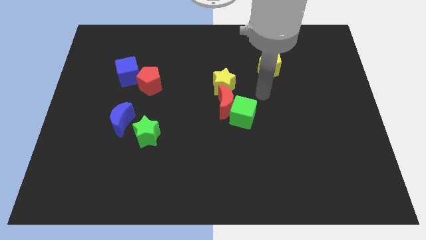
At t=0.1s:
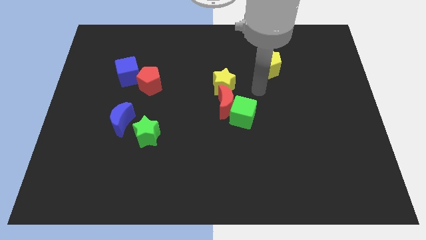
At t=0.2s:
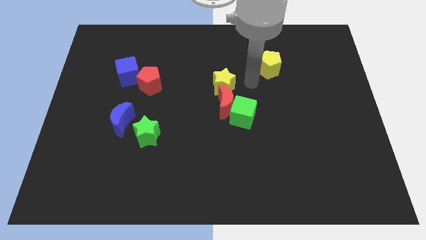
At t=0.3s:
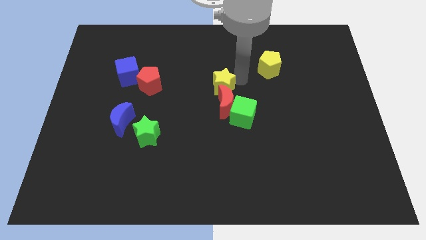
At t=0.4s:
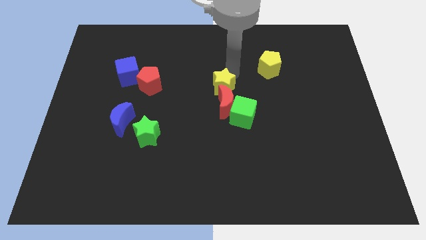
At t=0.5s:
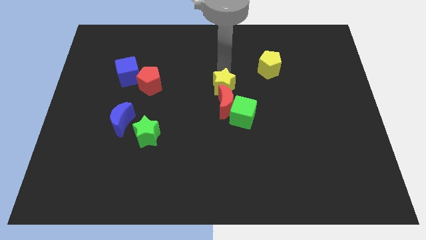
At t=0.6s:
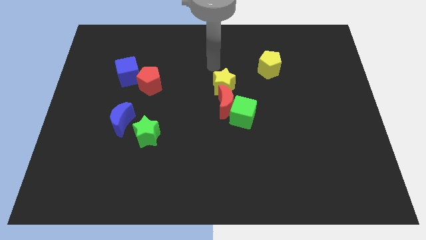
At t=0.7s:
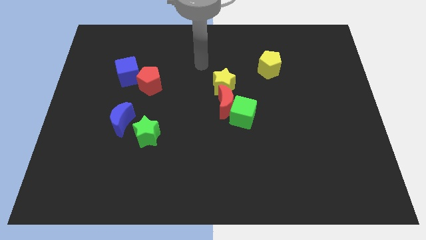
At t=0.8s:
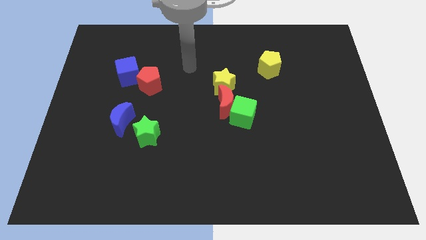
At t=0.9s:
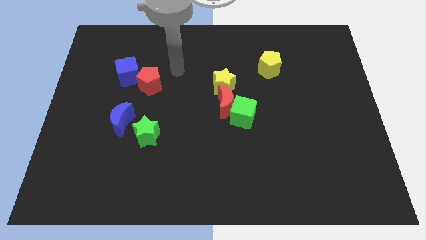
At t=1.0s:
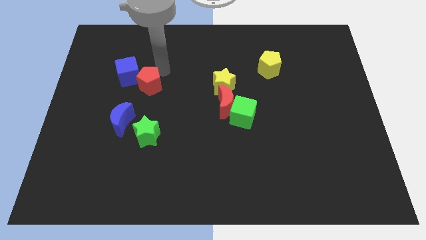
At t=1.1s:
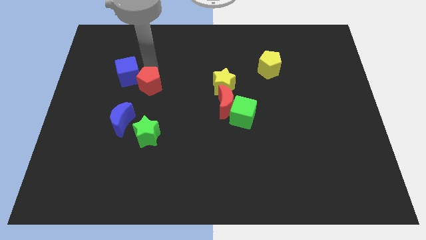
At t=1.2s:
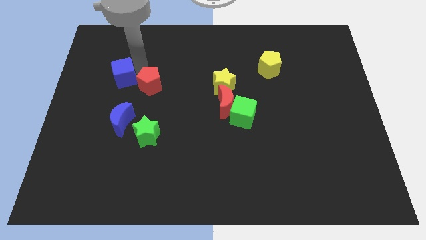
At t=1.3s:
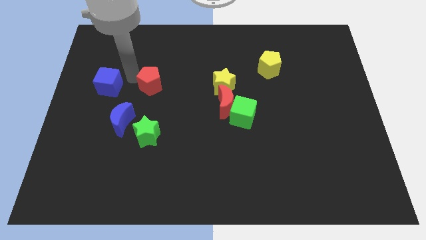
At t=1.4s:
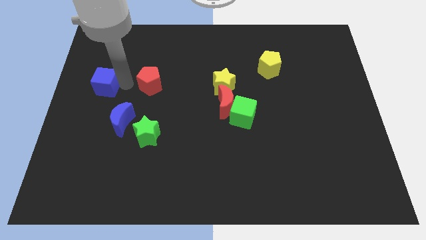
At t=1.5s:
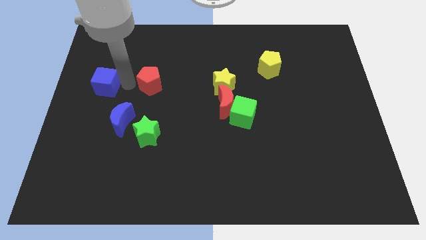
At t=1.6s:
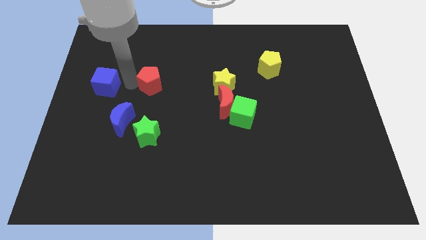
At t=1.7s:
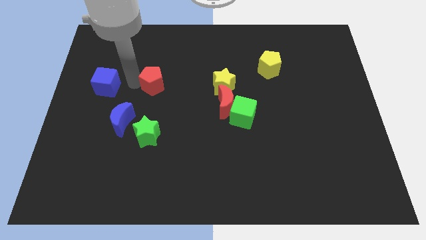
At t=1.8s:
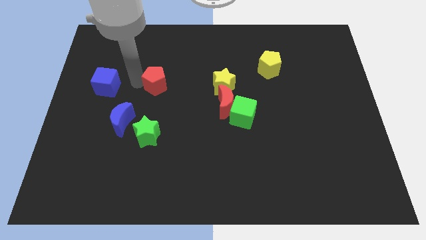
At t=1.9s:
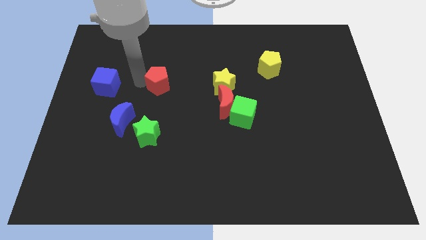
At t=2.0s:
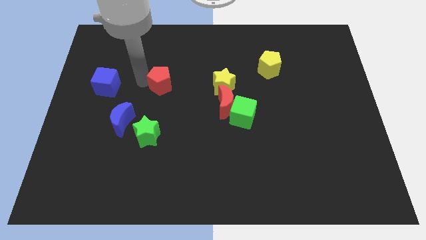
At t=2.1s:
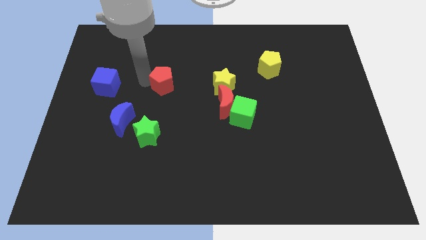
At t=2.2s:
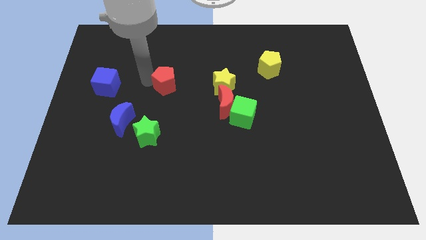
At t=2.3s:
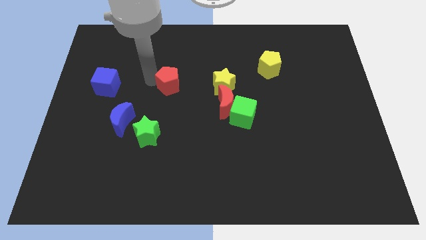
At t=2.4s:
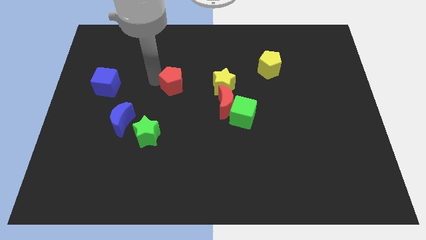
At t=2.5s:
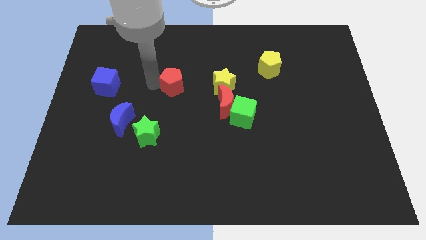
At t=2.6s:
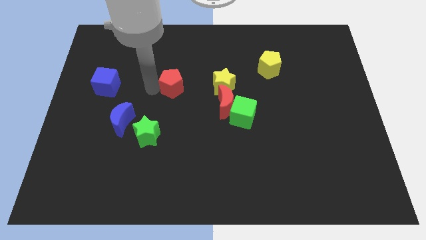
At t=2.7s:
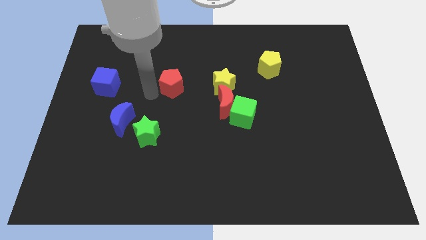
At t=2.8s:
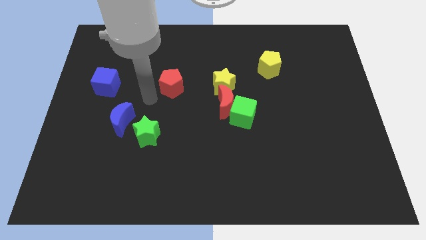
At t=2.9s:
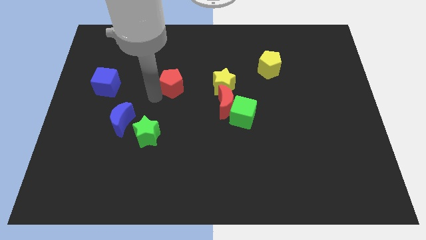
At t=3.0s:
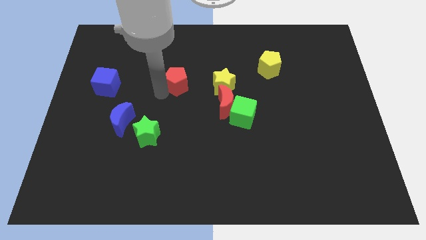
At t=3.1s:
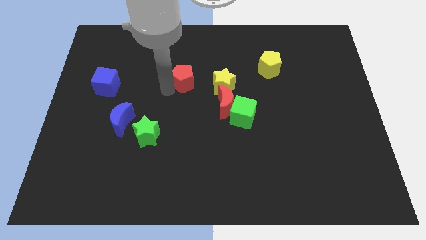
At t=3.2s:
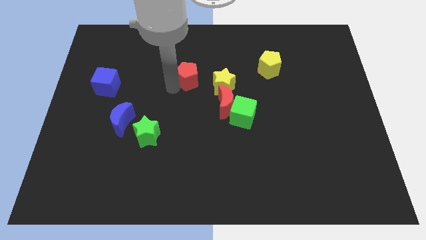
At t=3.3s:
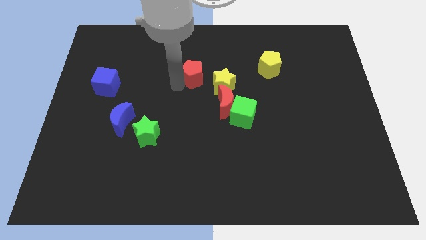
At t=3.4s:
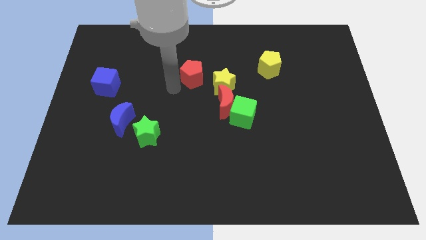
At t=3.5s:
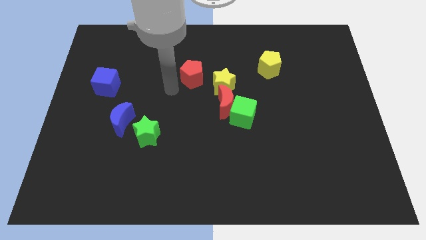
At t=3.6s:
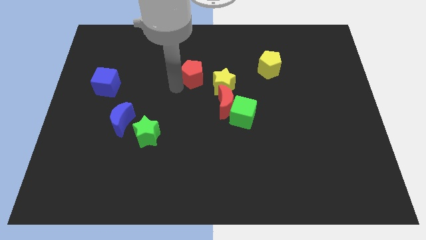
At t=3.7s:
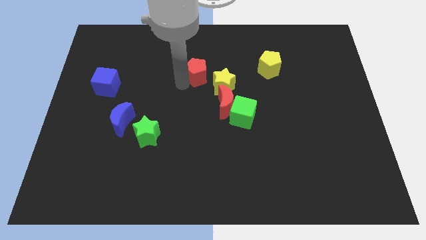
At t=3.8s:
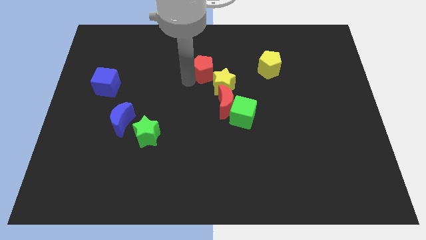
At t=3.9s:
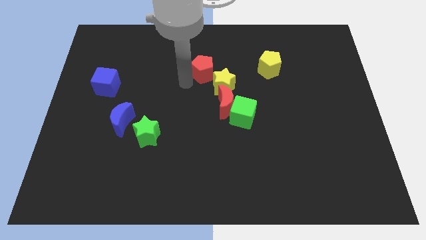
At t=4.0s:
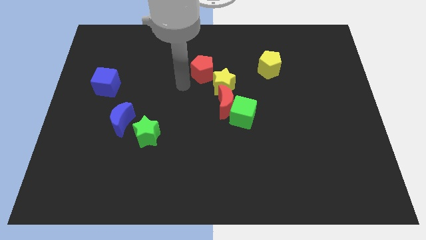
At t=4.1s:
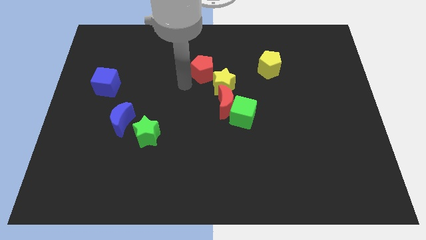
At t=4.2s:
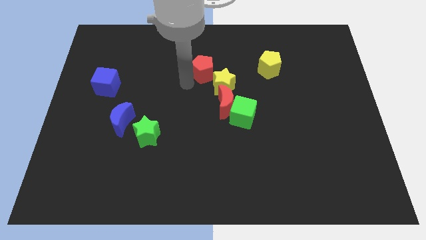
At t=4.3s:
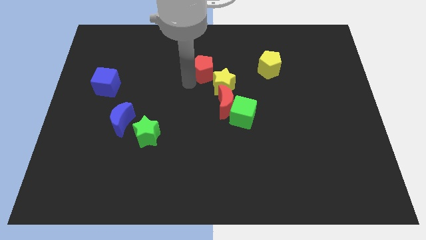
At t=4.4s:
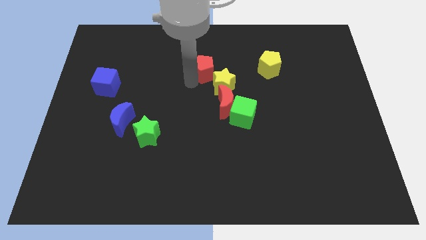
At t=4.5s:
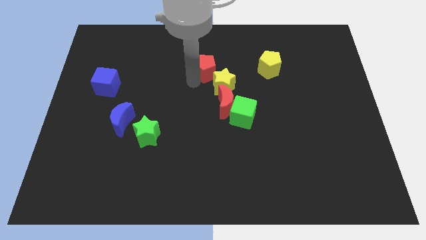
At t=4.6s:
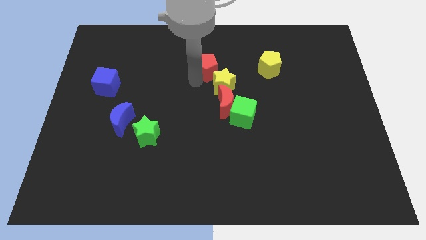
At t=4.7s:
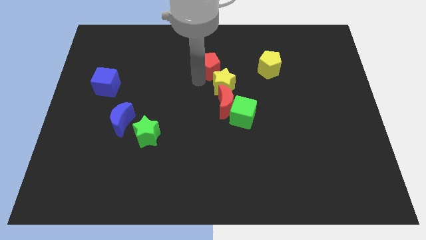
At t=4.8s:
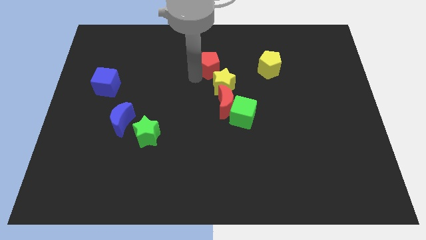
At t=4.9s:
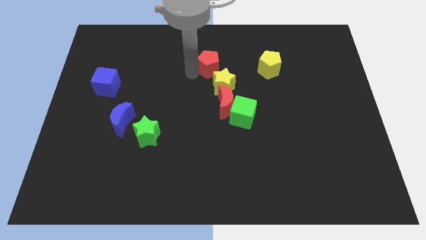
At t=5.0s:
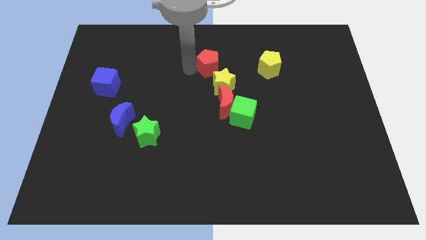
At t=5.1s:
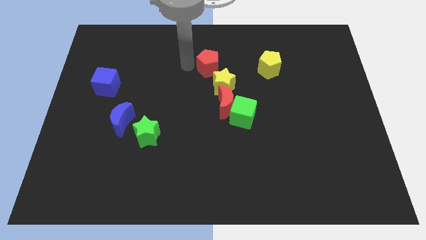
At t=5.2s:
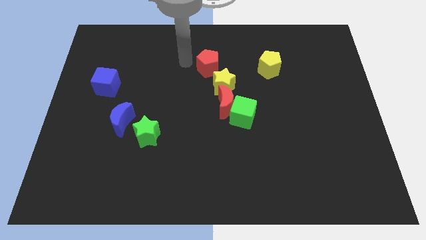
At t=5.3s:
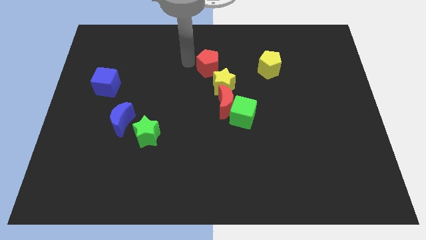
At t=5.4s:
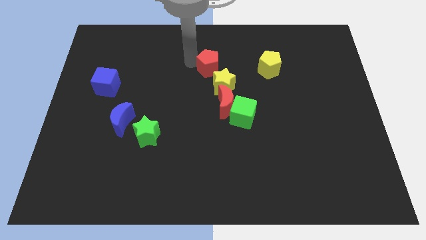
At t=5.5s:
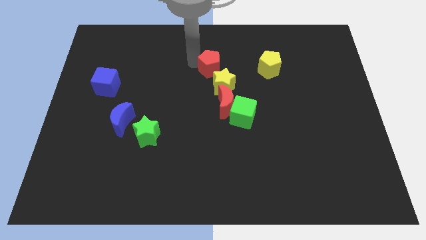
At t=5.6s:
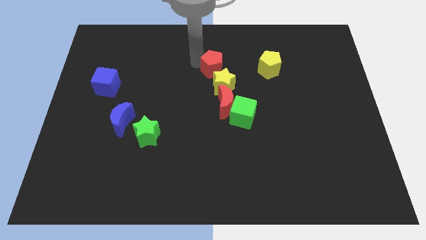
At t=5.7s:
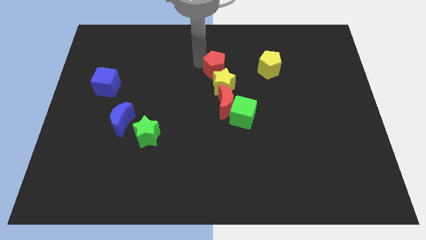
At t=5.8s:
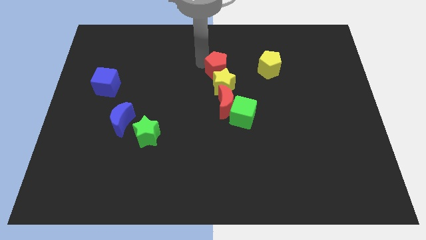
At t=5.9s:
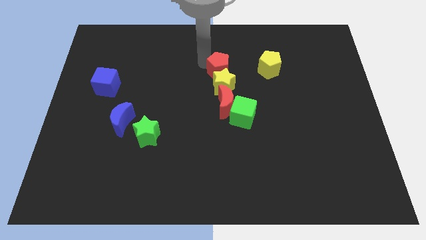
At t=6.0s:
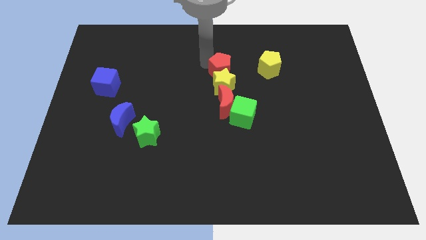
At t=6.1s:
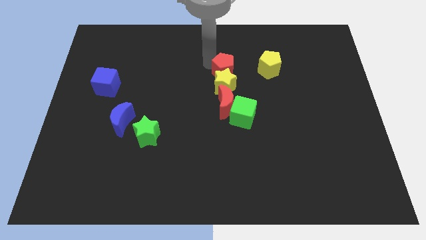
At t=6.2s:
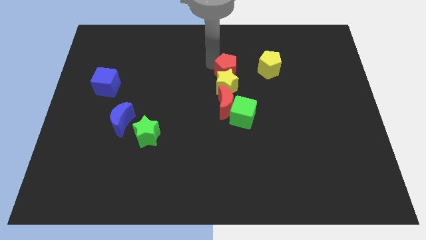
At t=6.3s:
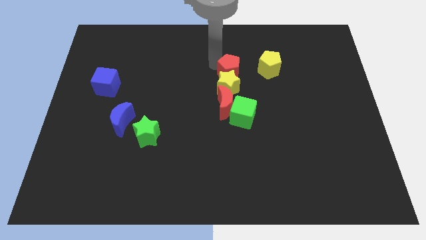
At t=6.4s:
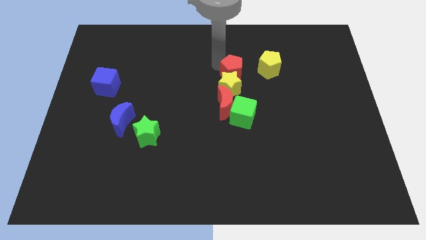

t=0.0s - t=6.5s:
slide the red pentagon right

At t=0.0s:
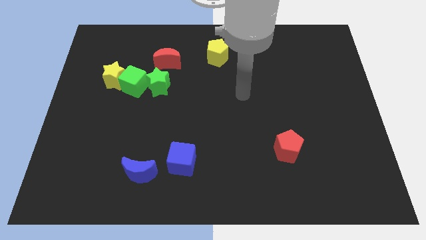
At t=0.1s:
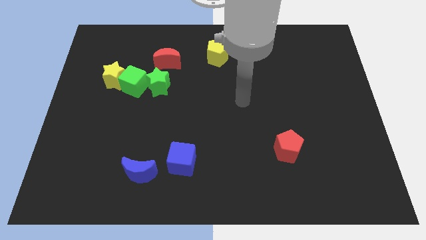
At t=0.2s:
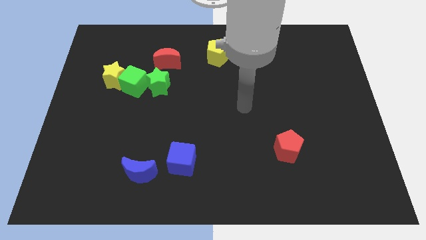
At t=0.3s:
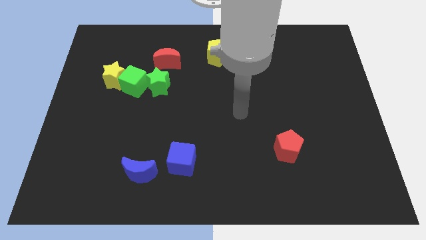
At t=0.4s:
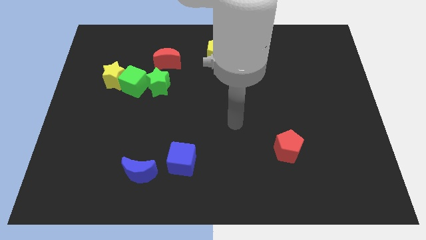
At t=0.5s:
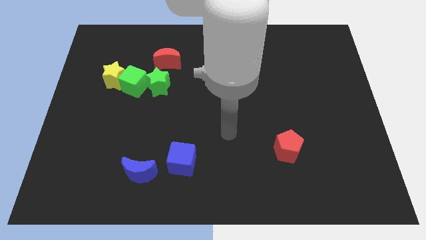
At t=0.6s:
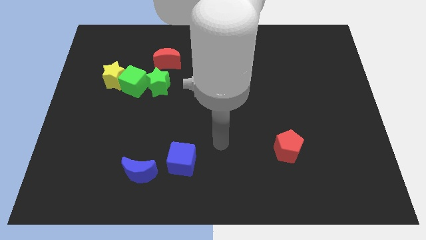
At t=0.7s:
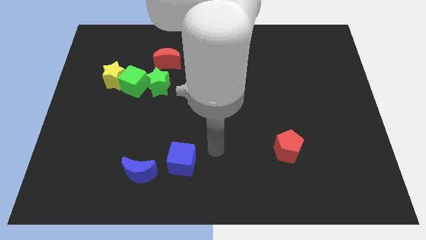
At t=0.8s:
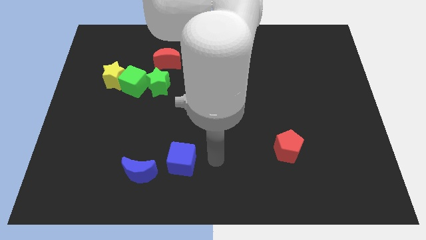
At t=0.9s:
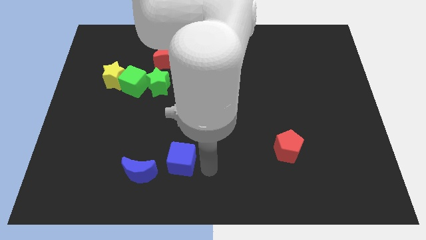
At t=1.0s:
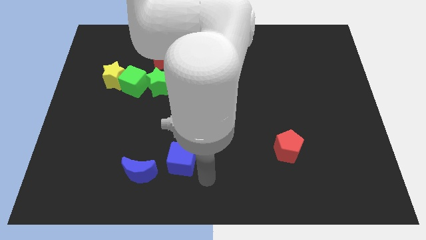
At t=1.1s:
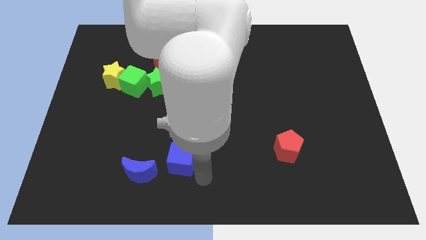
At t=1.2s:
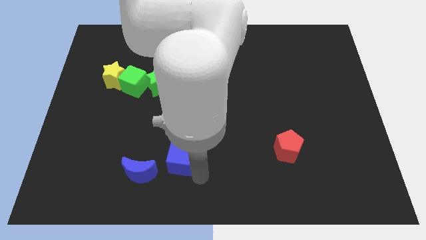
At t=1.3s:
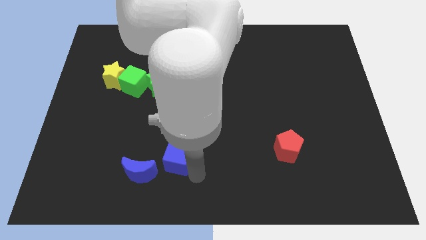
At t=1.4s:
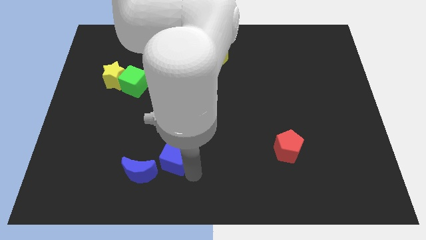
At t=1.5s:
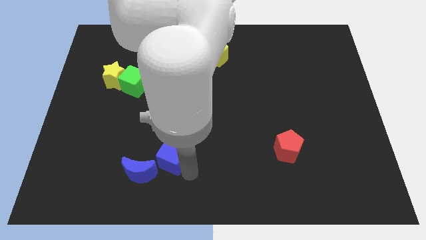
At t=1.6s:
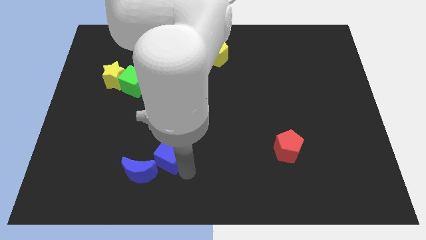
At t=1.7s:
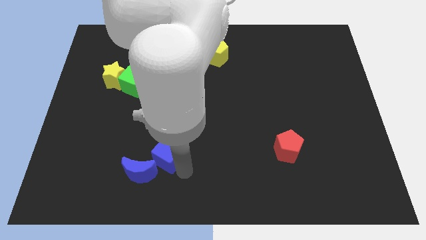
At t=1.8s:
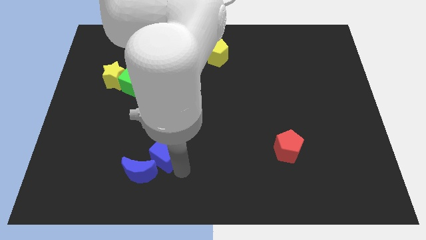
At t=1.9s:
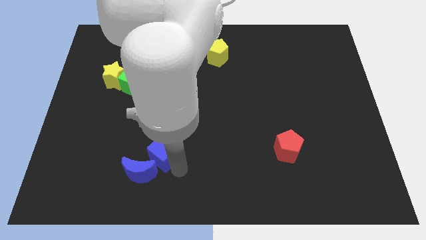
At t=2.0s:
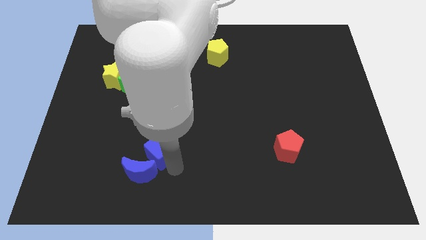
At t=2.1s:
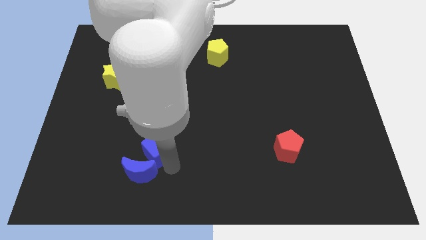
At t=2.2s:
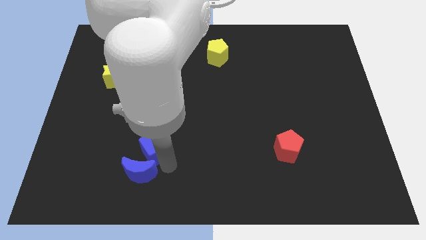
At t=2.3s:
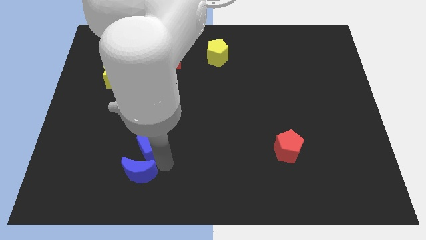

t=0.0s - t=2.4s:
move the blue cube upwards and then to the left a bit
